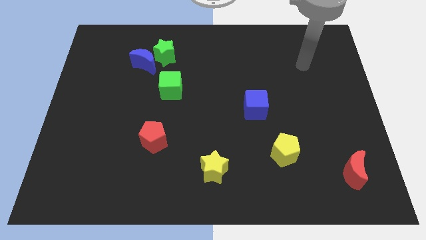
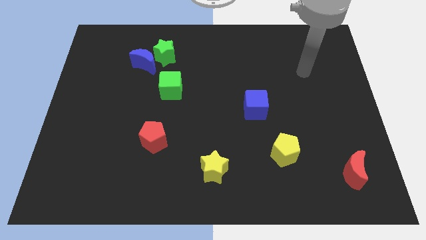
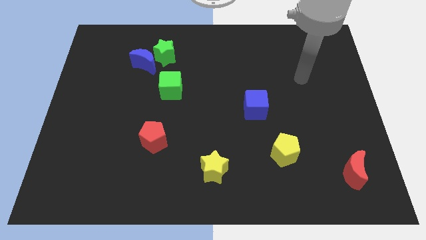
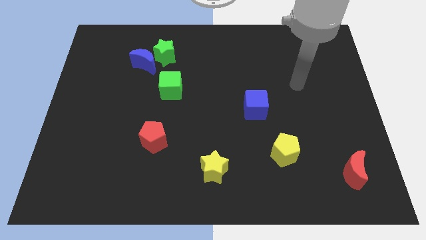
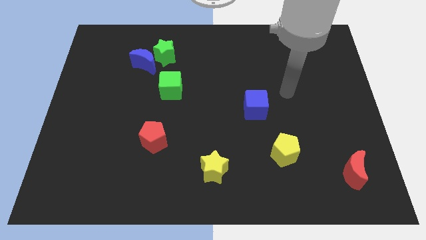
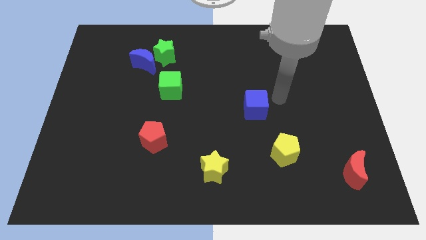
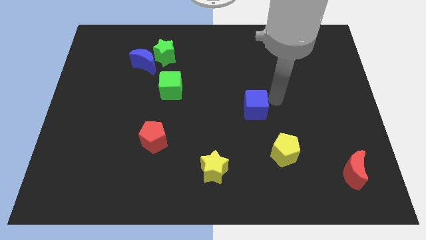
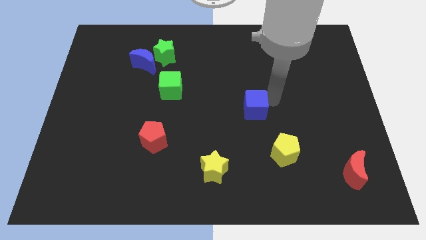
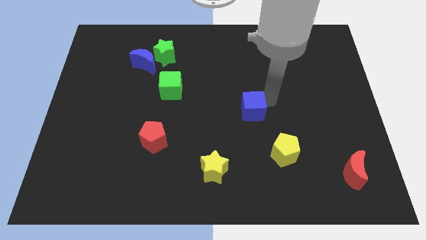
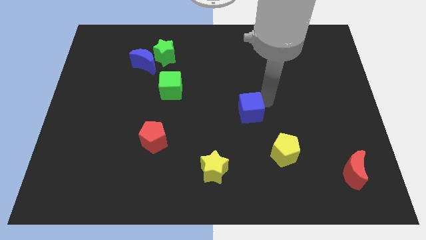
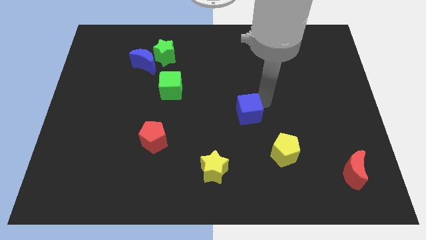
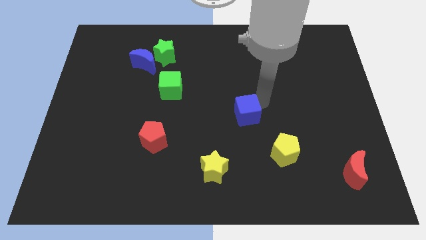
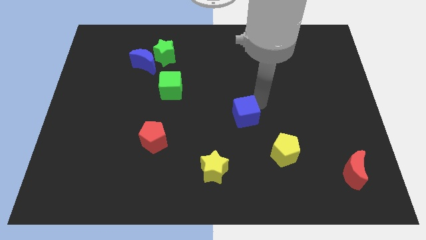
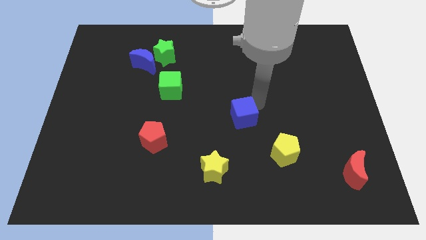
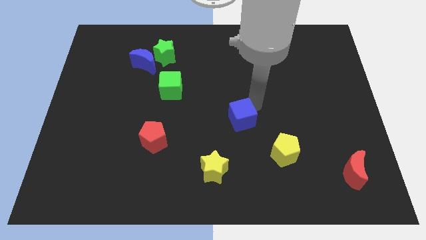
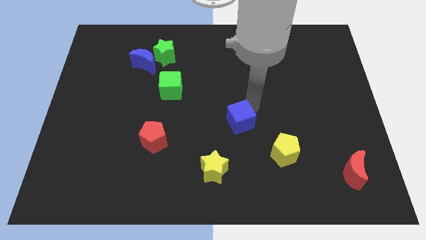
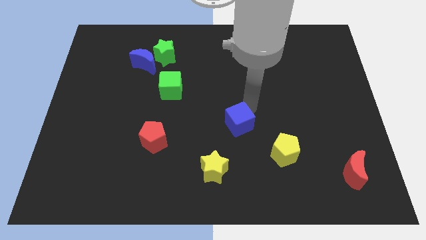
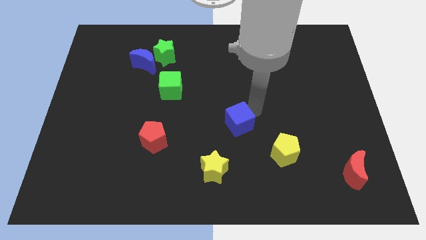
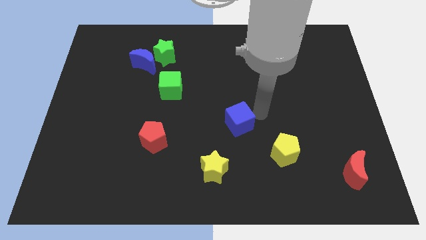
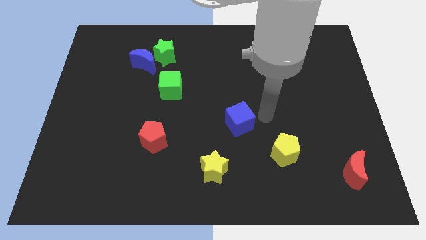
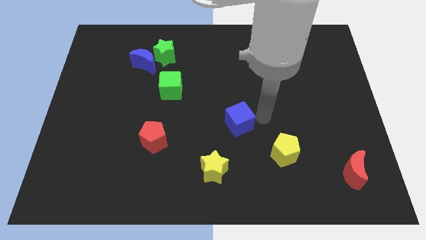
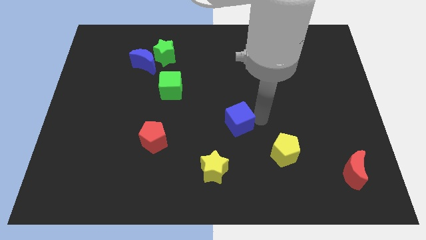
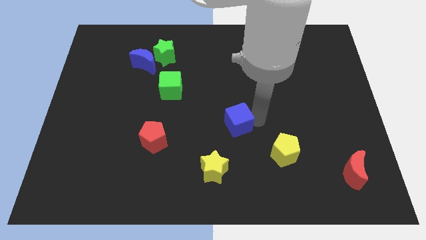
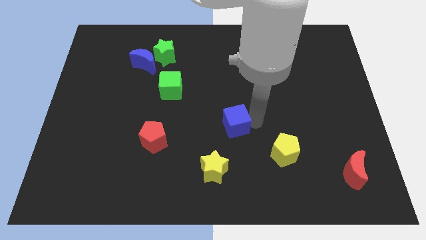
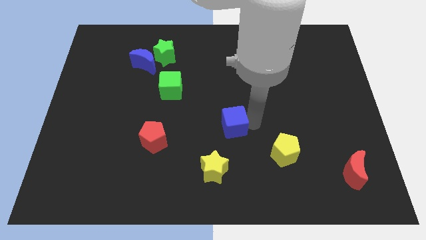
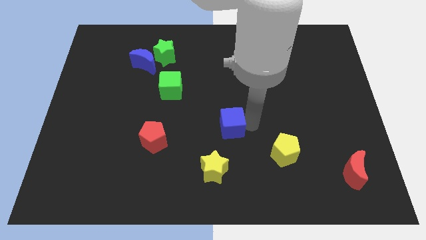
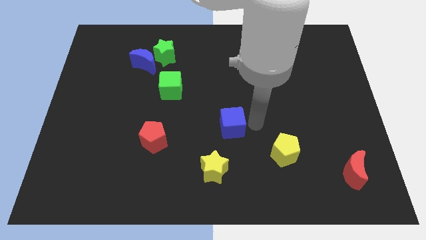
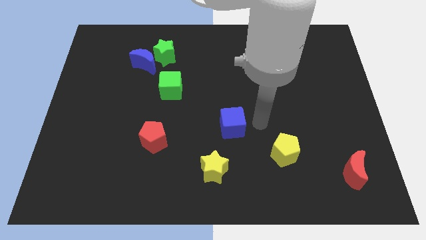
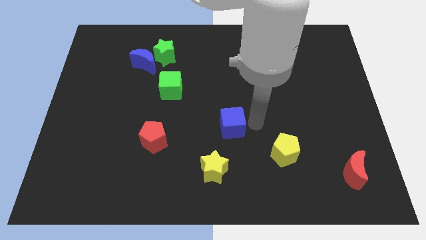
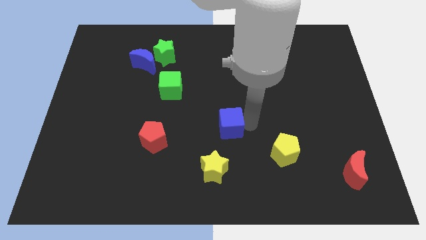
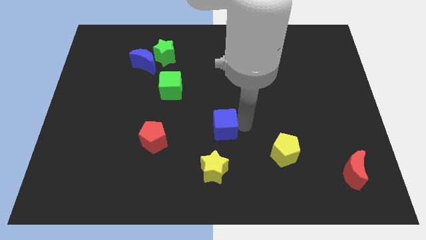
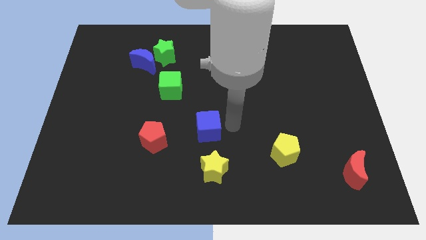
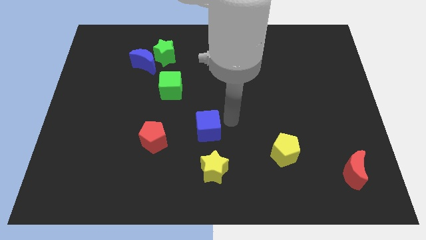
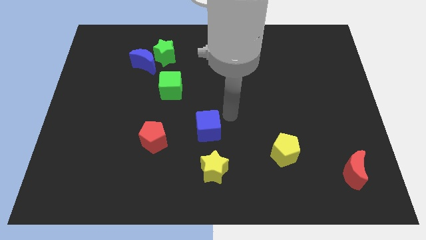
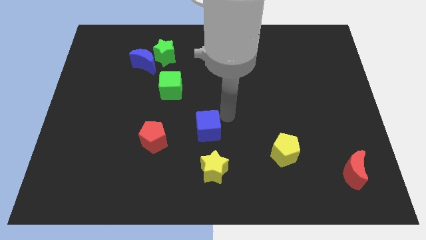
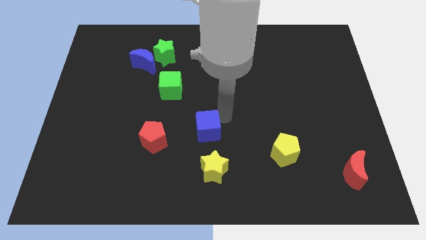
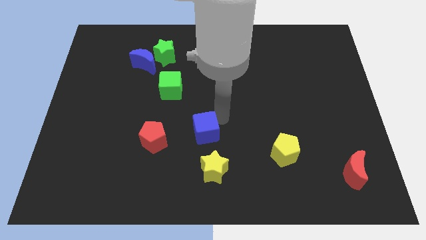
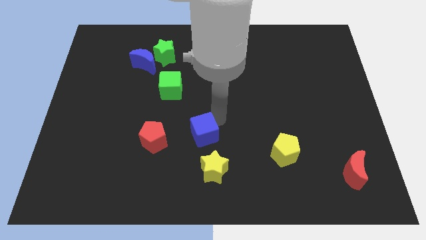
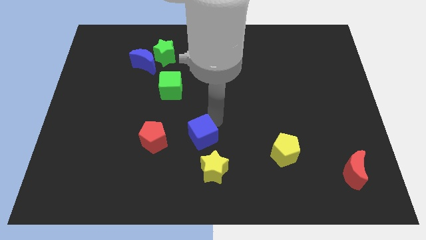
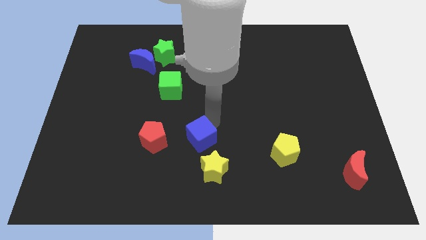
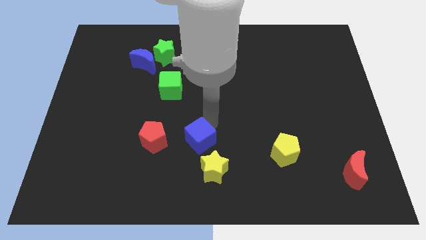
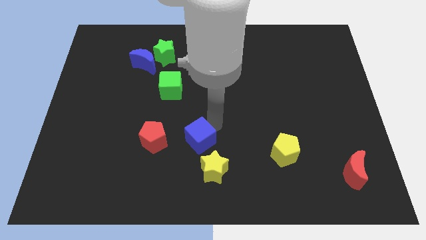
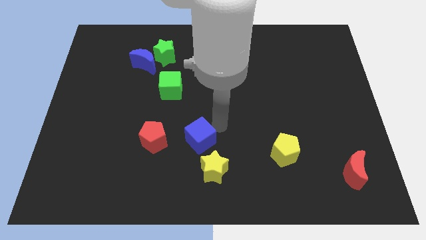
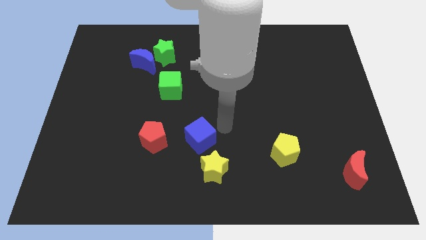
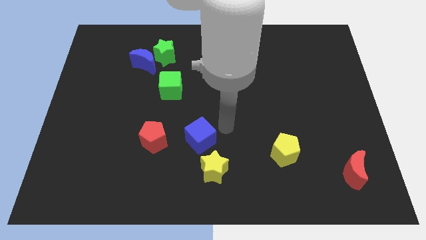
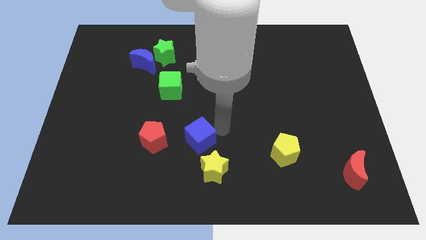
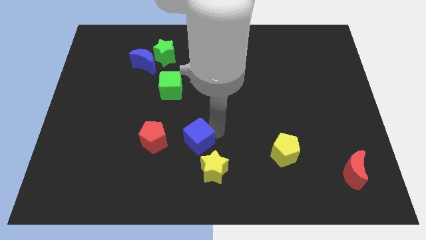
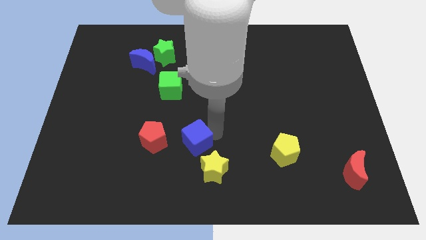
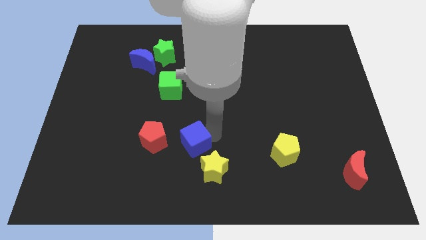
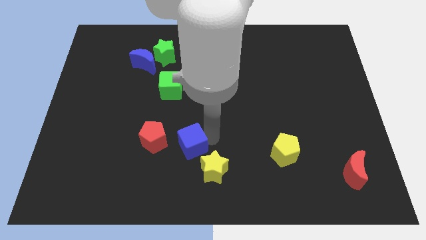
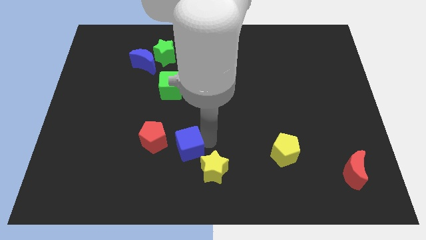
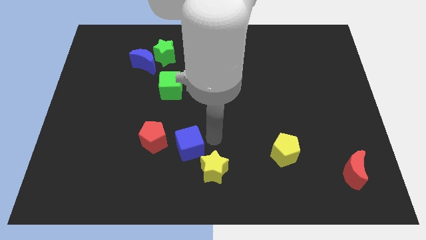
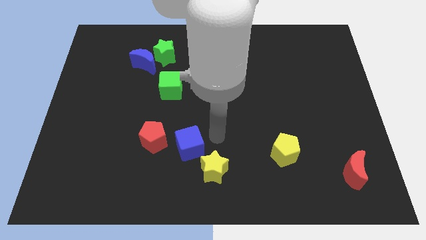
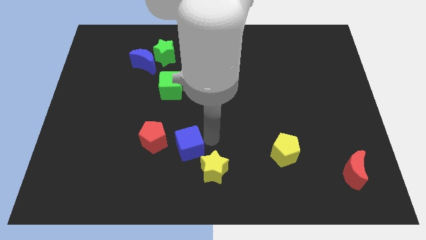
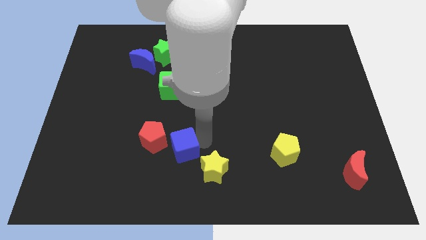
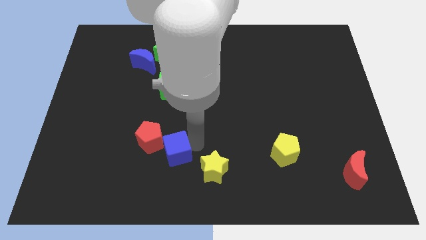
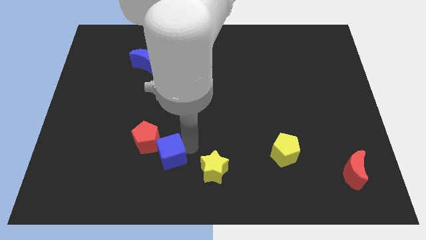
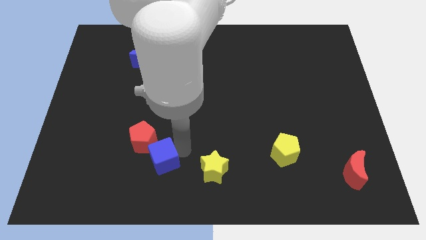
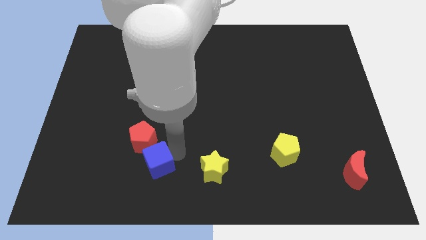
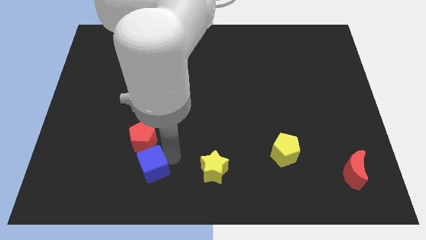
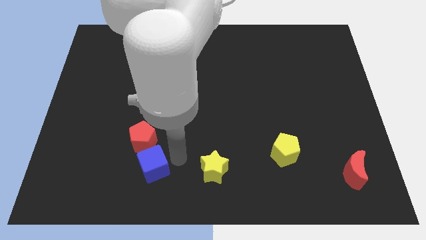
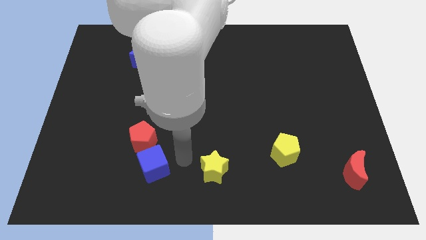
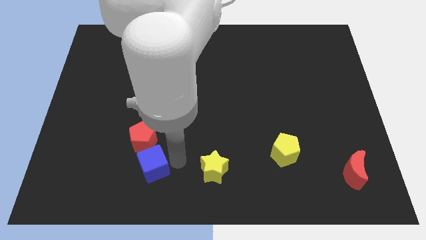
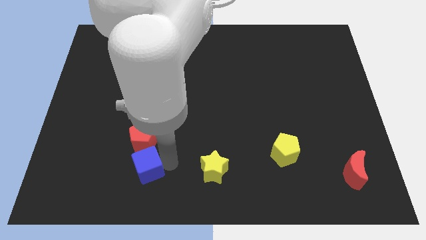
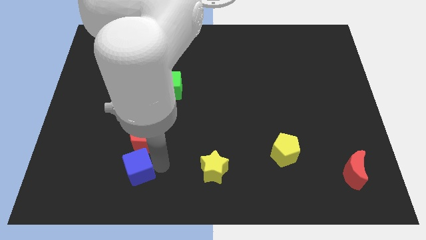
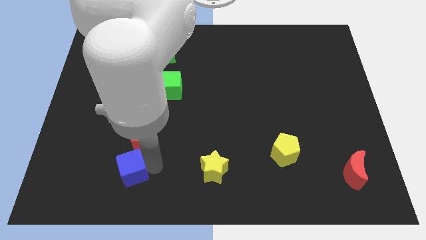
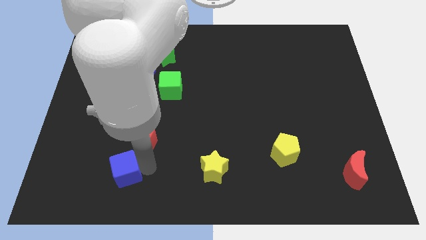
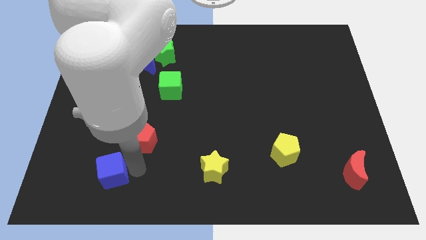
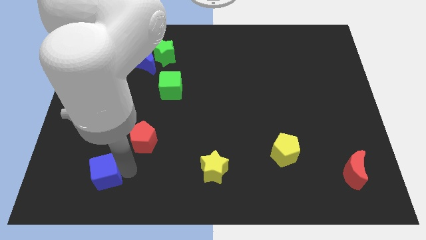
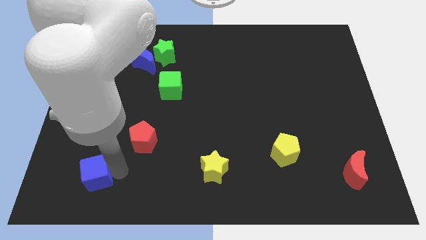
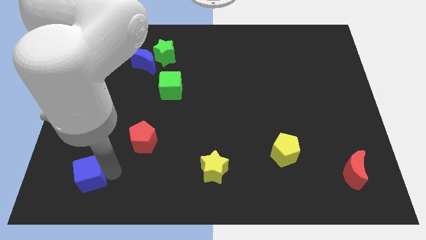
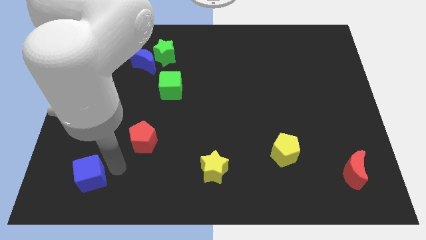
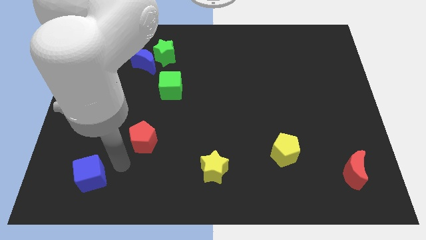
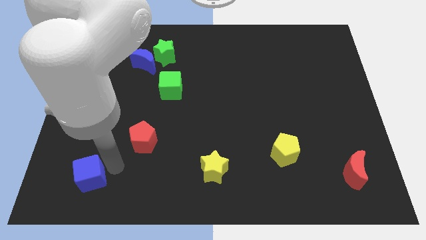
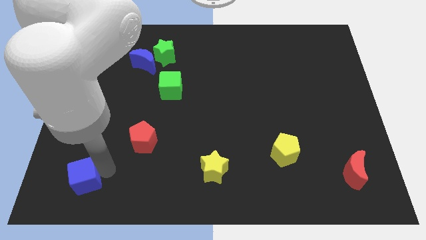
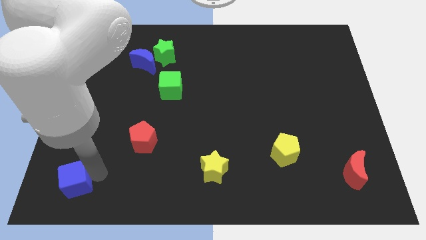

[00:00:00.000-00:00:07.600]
move the blue cube to the bottom left of the board
